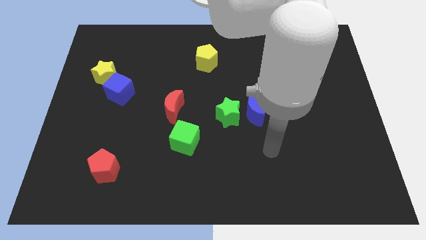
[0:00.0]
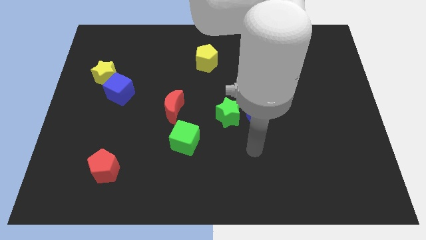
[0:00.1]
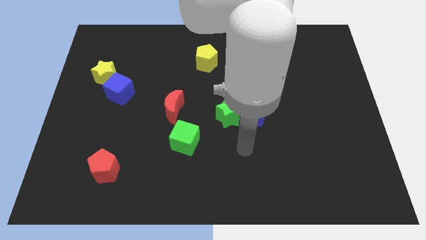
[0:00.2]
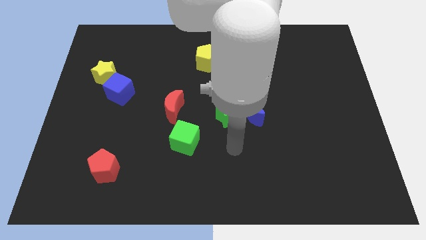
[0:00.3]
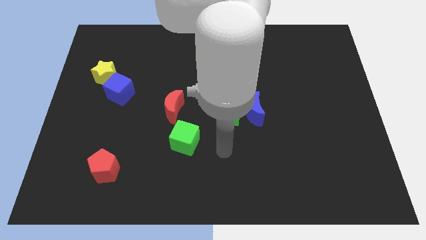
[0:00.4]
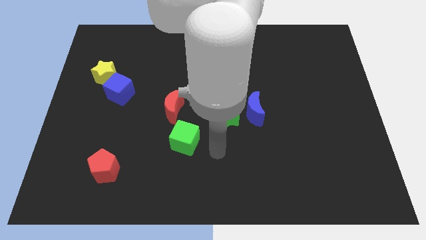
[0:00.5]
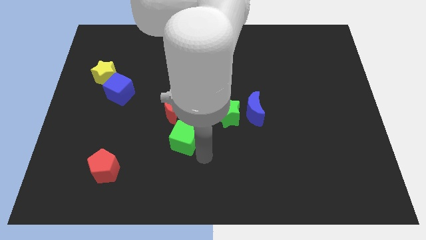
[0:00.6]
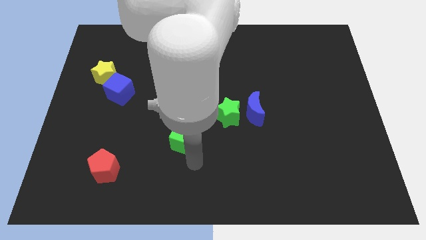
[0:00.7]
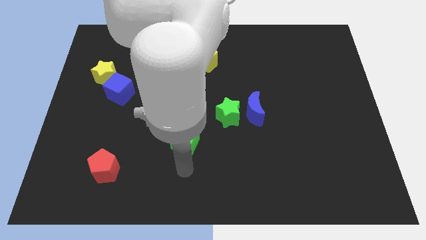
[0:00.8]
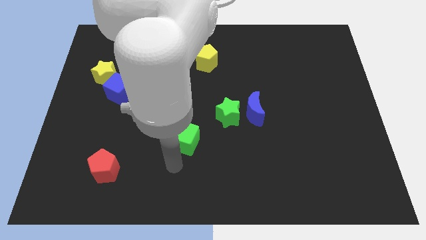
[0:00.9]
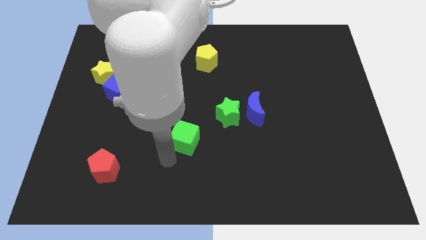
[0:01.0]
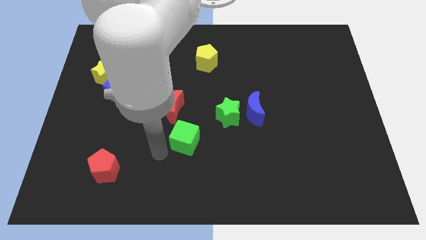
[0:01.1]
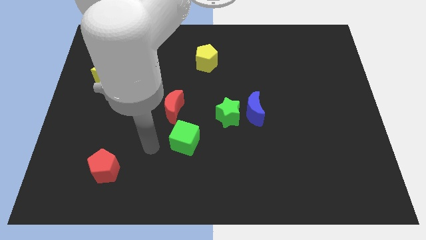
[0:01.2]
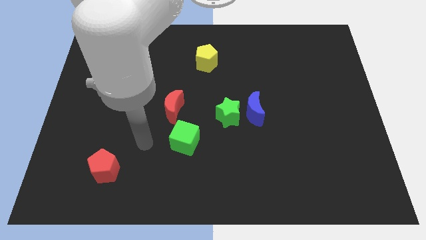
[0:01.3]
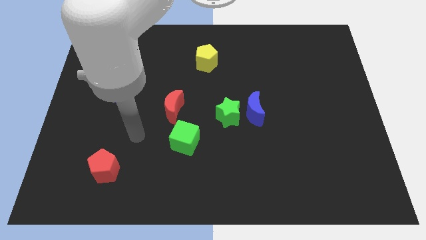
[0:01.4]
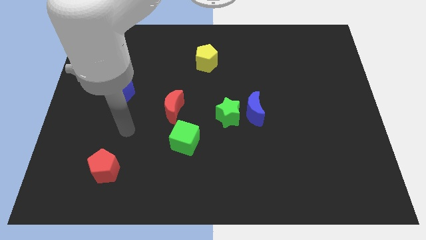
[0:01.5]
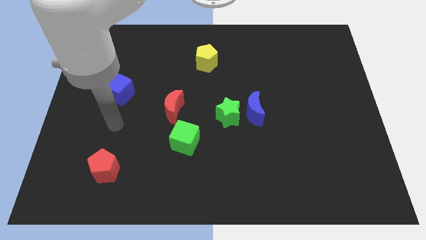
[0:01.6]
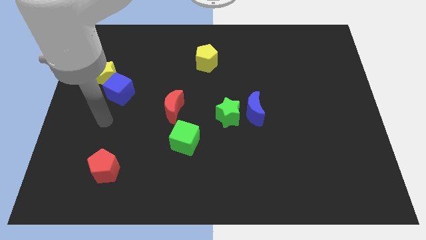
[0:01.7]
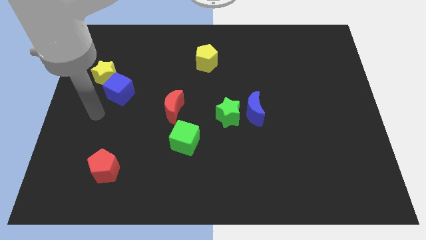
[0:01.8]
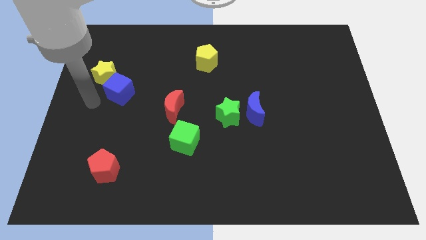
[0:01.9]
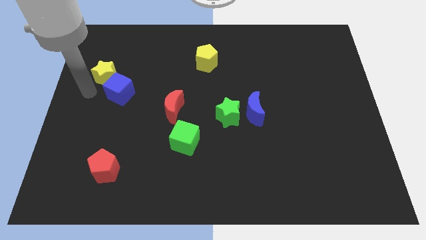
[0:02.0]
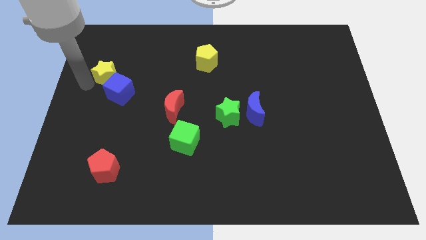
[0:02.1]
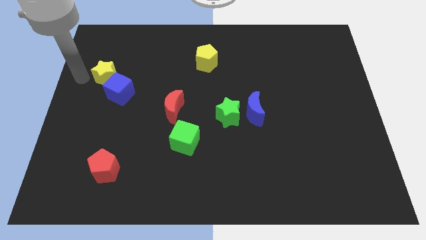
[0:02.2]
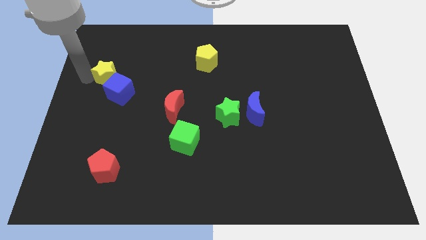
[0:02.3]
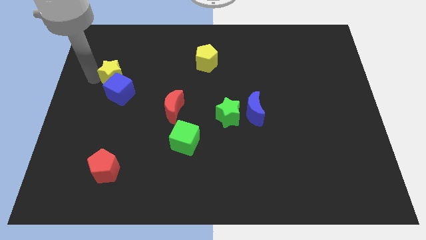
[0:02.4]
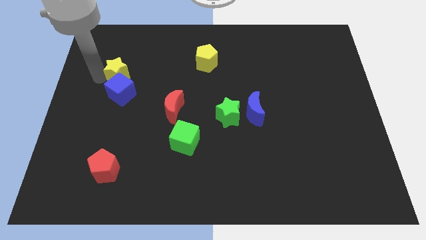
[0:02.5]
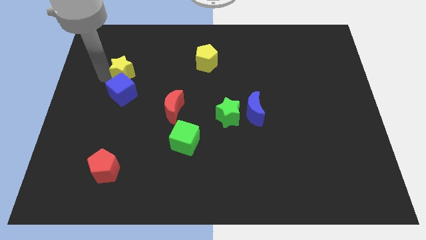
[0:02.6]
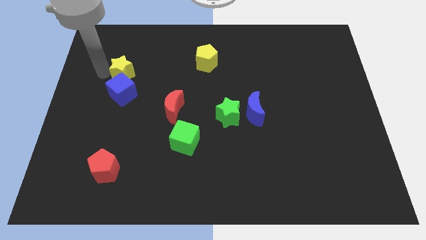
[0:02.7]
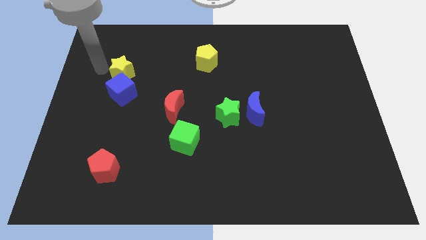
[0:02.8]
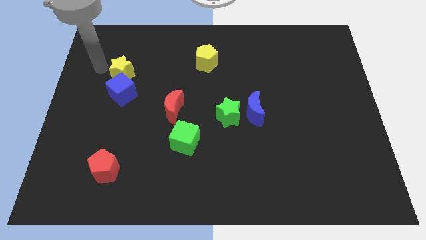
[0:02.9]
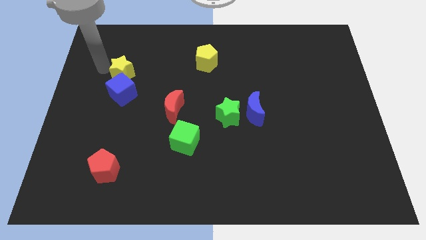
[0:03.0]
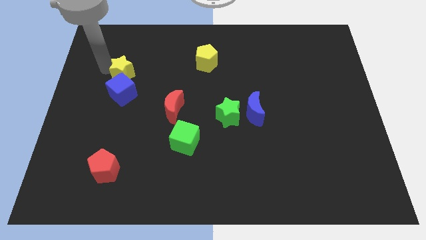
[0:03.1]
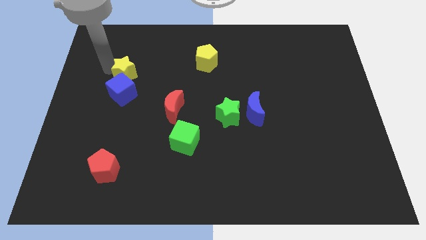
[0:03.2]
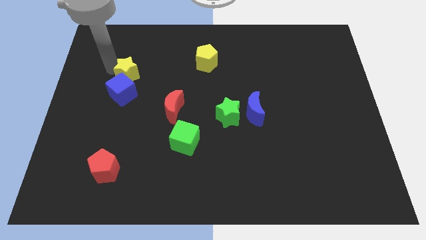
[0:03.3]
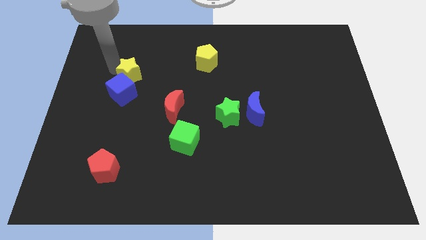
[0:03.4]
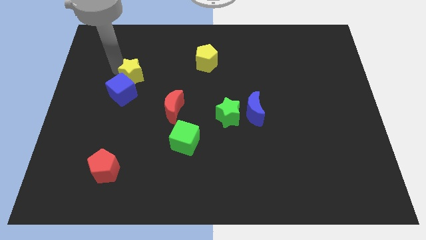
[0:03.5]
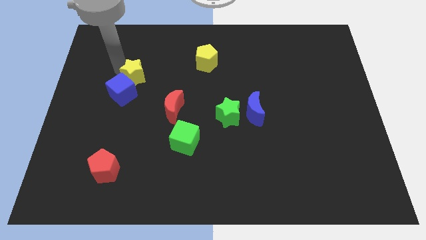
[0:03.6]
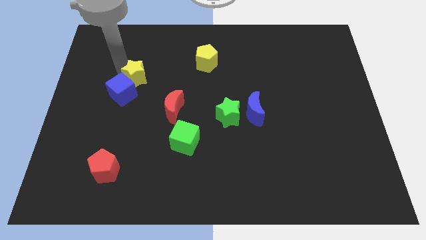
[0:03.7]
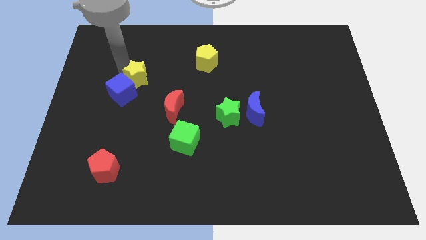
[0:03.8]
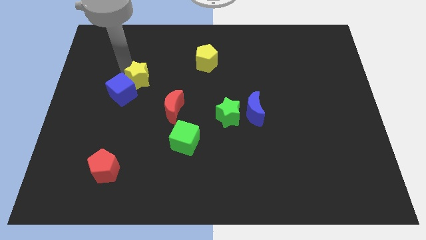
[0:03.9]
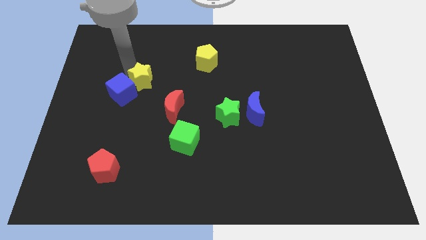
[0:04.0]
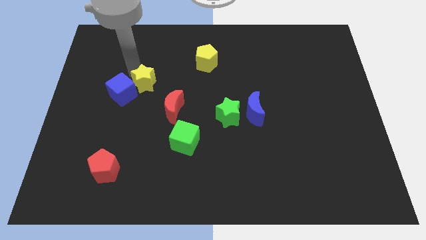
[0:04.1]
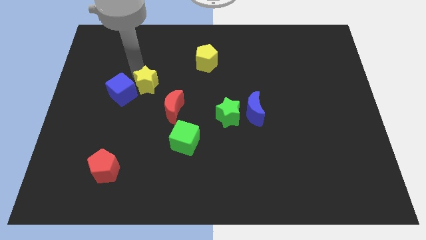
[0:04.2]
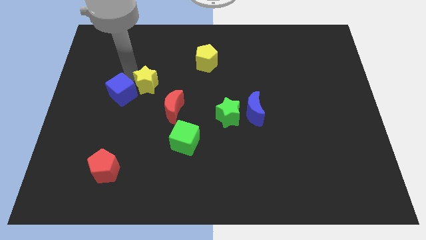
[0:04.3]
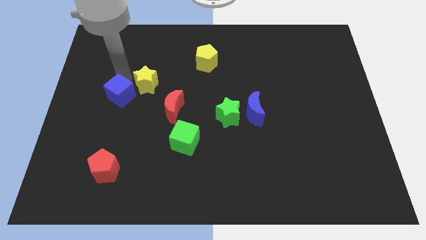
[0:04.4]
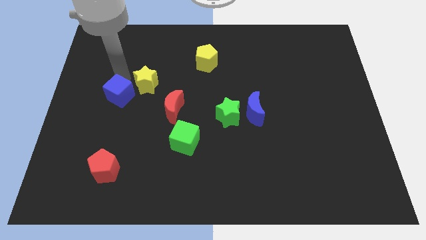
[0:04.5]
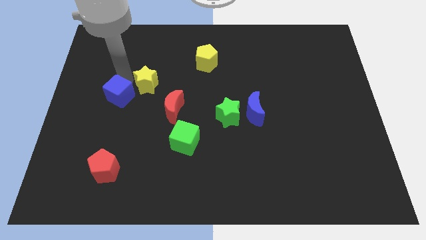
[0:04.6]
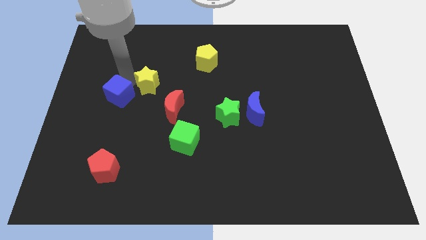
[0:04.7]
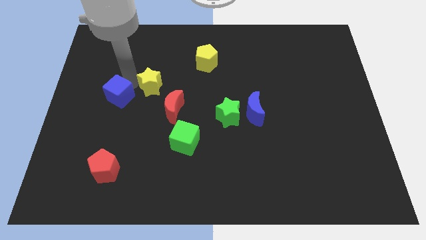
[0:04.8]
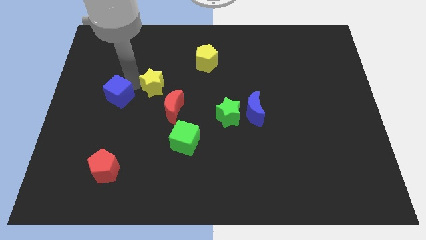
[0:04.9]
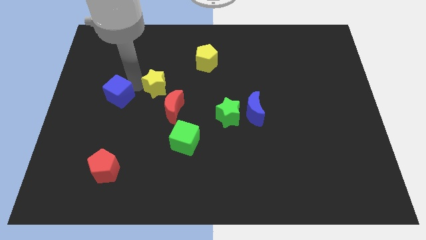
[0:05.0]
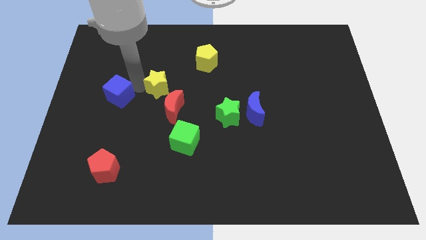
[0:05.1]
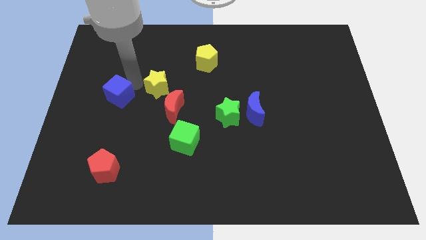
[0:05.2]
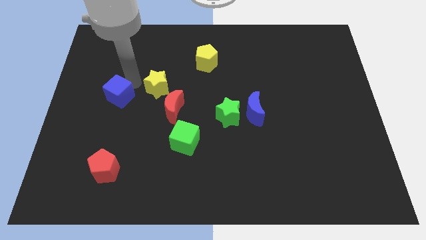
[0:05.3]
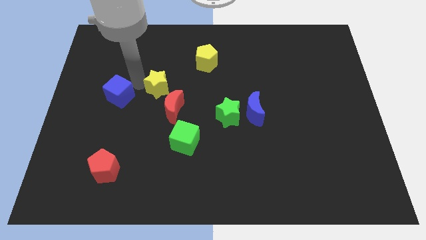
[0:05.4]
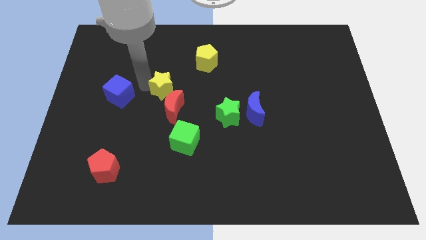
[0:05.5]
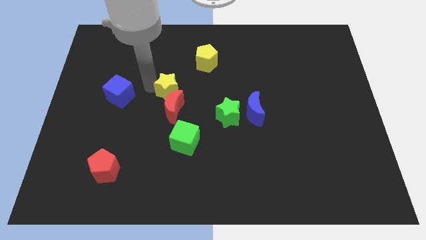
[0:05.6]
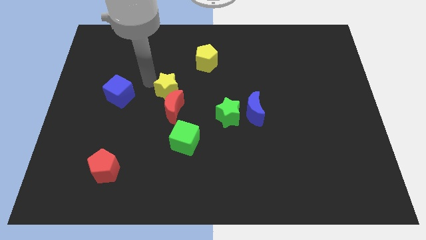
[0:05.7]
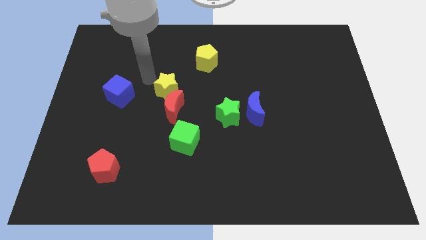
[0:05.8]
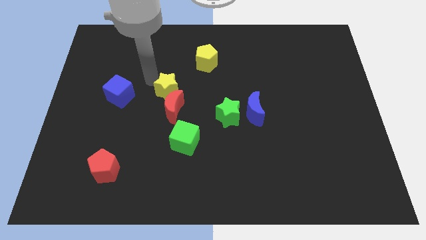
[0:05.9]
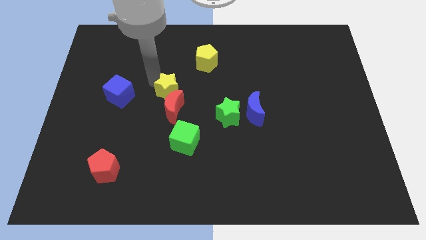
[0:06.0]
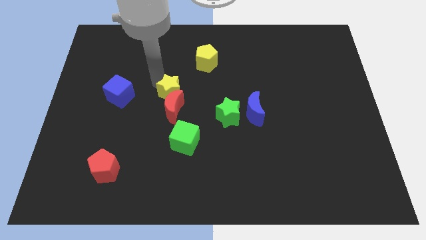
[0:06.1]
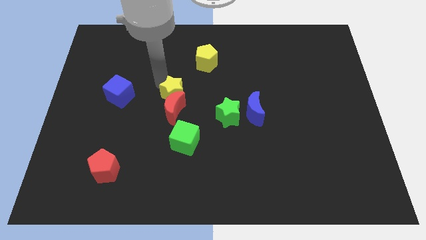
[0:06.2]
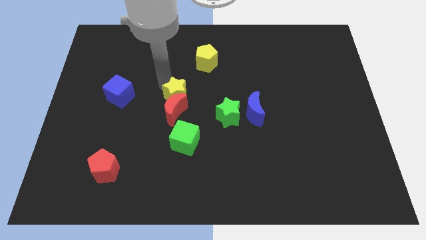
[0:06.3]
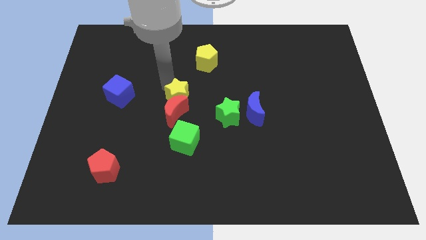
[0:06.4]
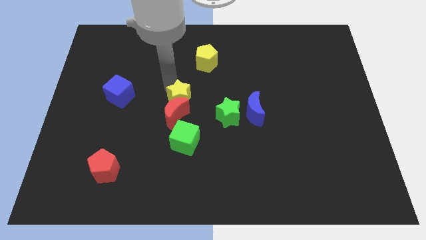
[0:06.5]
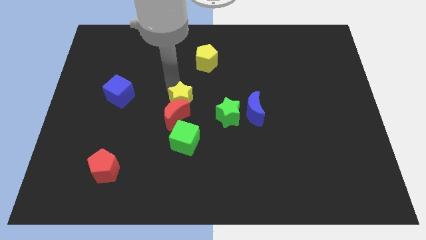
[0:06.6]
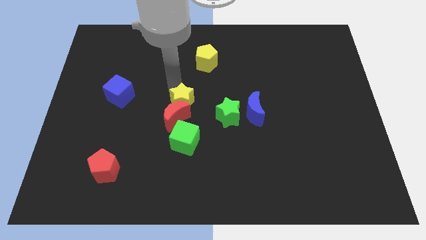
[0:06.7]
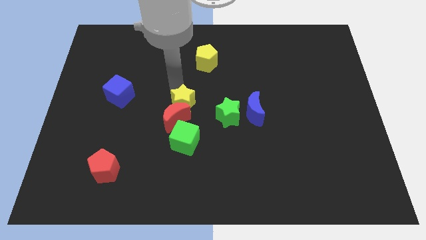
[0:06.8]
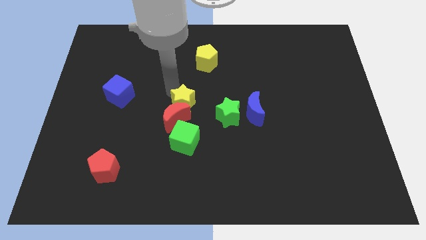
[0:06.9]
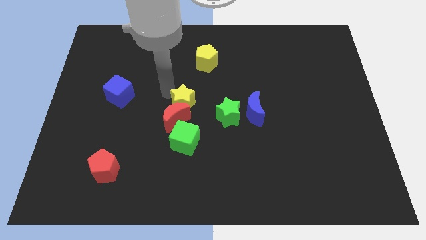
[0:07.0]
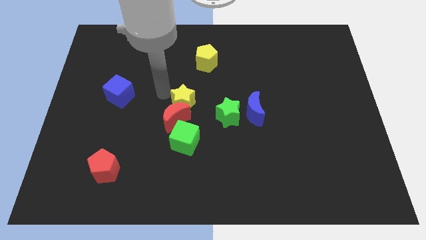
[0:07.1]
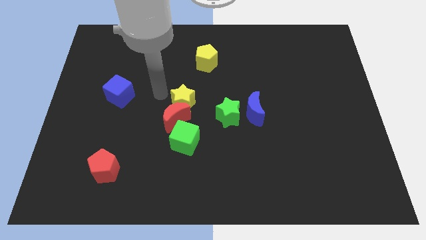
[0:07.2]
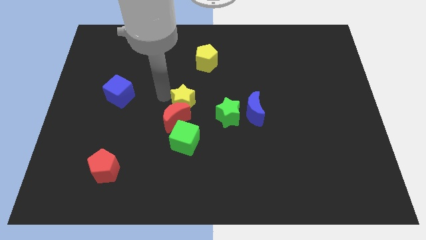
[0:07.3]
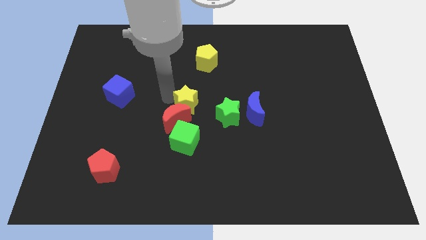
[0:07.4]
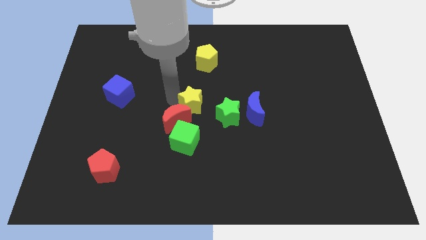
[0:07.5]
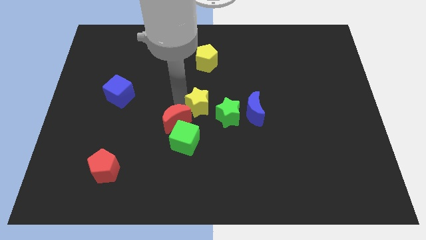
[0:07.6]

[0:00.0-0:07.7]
move the yellow star to the top right of the green cube
